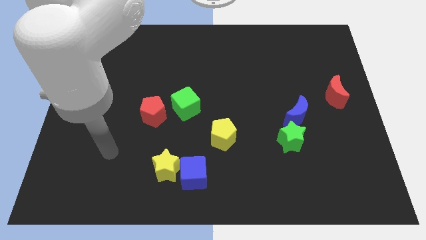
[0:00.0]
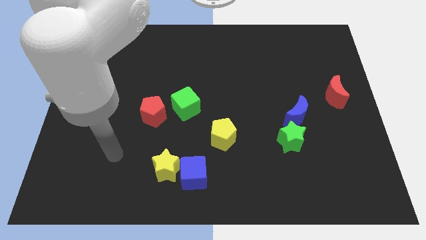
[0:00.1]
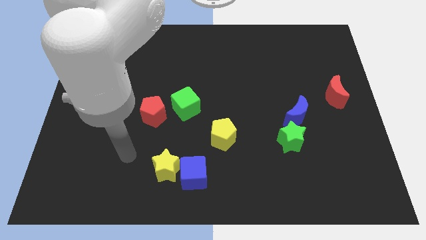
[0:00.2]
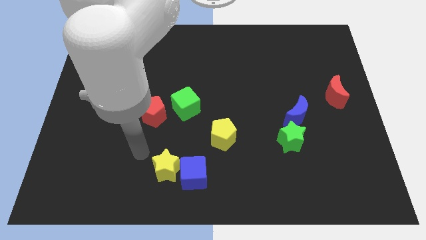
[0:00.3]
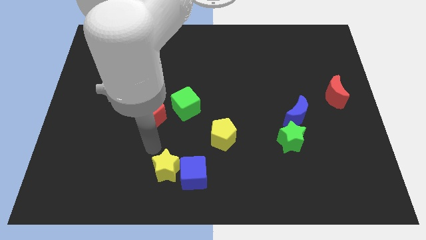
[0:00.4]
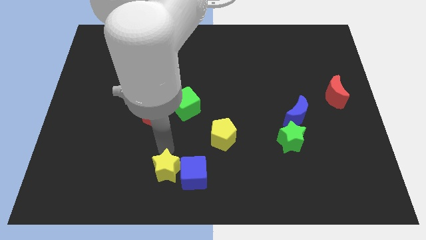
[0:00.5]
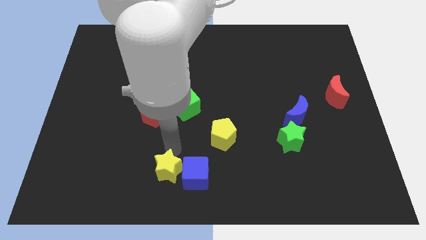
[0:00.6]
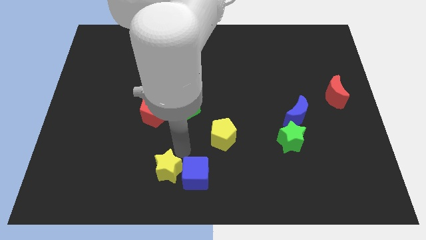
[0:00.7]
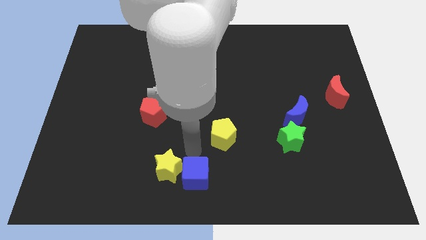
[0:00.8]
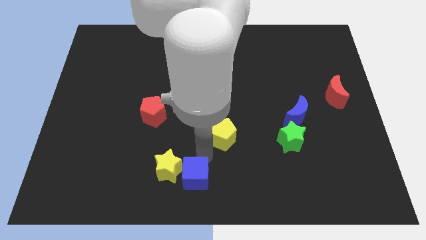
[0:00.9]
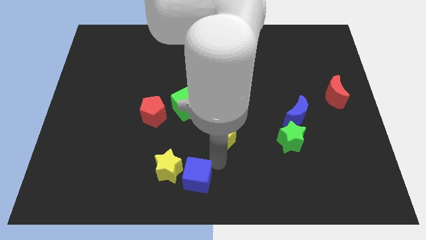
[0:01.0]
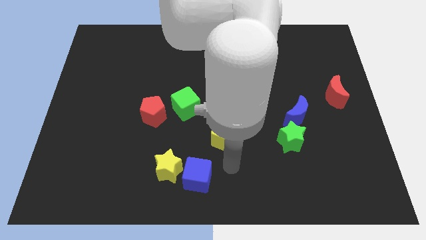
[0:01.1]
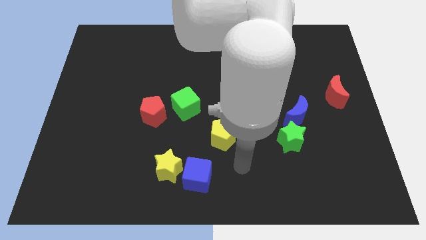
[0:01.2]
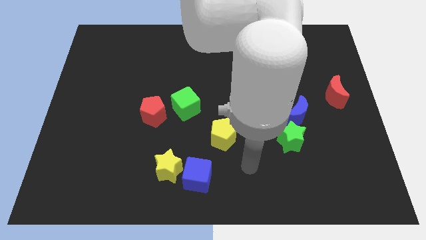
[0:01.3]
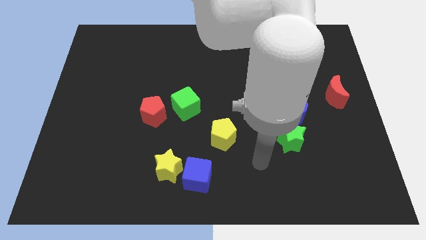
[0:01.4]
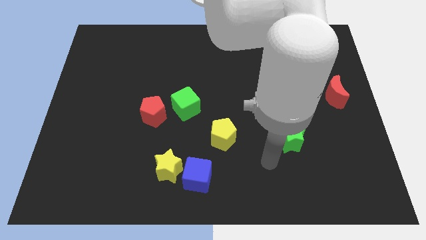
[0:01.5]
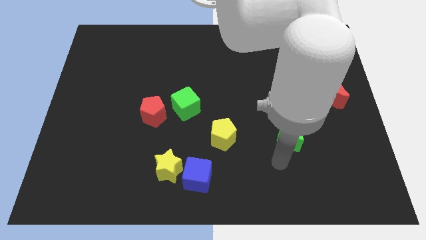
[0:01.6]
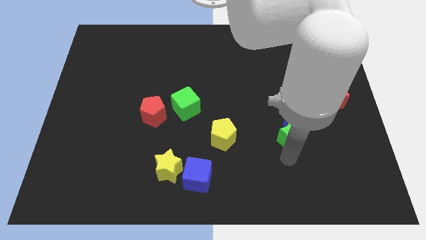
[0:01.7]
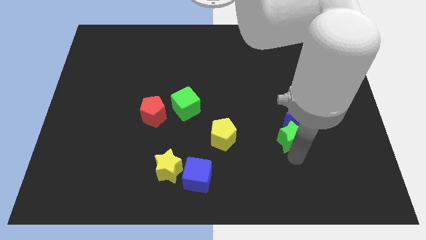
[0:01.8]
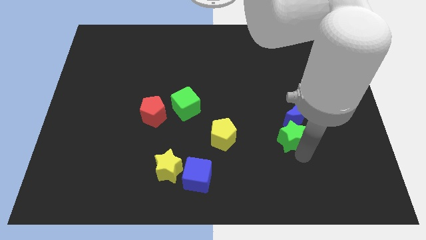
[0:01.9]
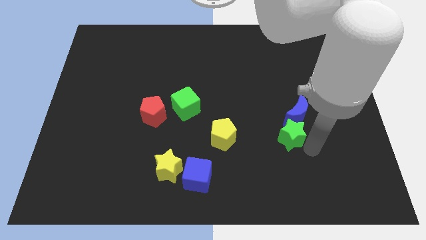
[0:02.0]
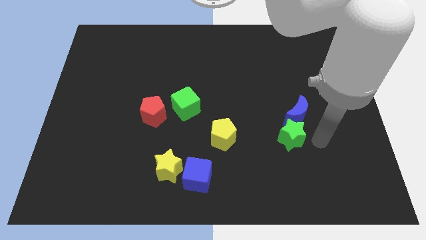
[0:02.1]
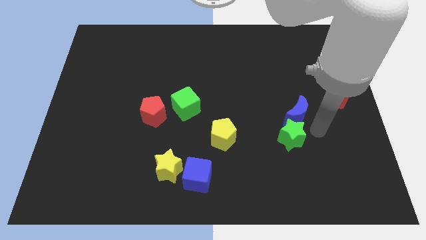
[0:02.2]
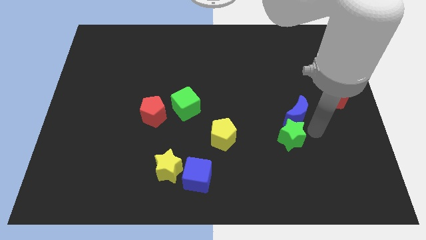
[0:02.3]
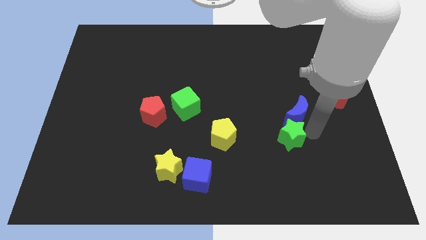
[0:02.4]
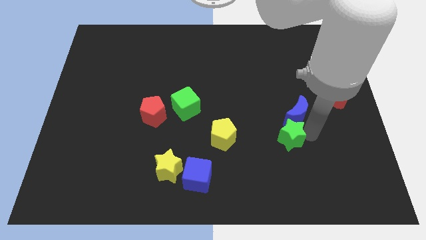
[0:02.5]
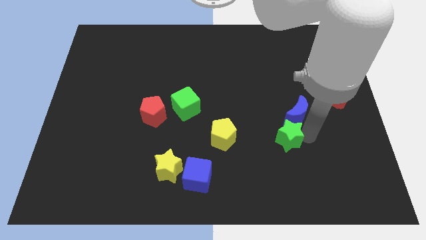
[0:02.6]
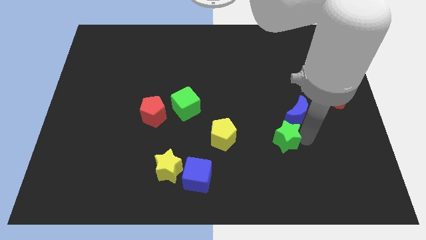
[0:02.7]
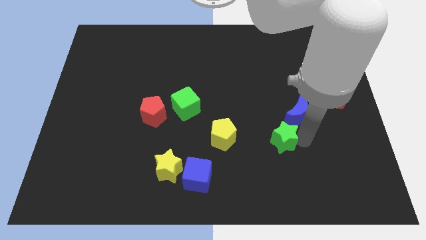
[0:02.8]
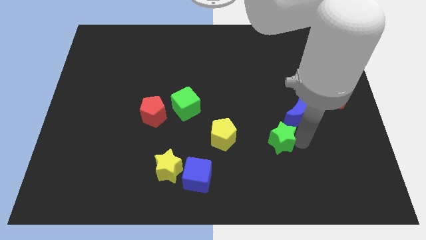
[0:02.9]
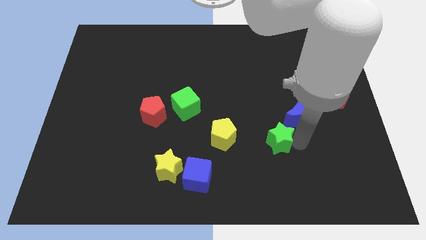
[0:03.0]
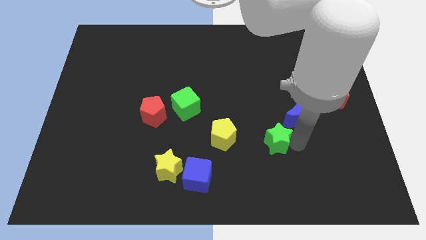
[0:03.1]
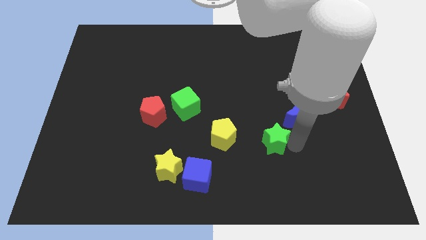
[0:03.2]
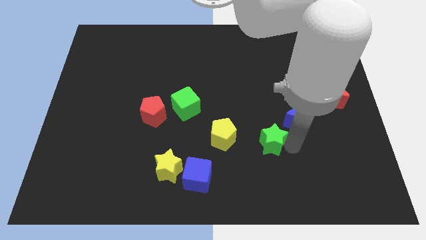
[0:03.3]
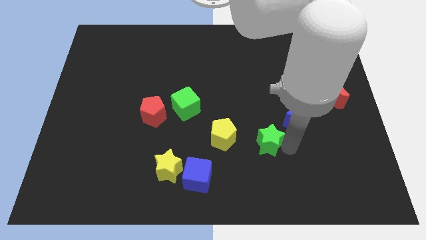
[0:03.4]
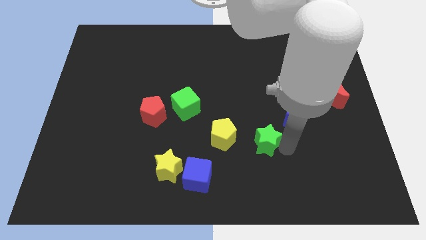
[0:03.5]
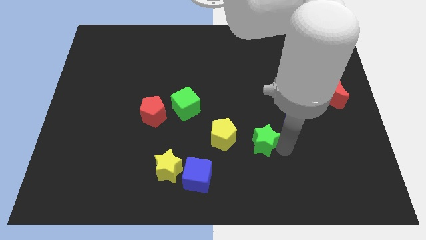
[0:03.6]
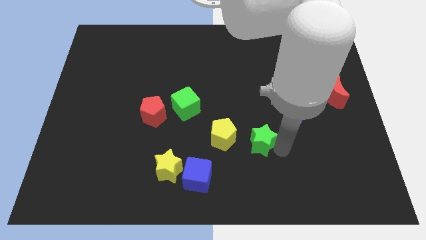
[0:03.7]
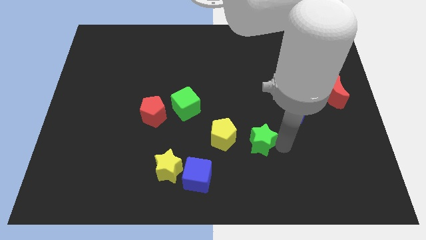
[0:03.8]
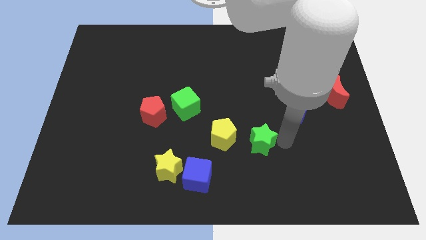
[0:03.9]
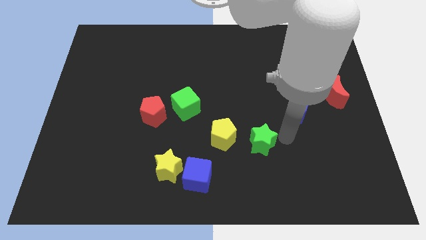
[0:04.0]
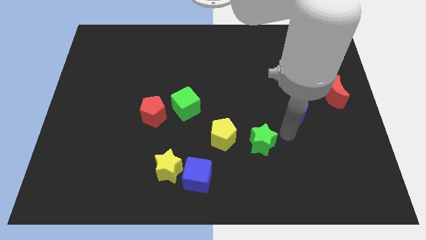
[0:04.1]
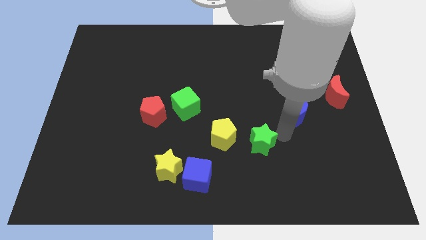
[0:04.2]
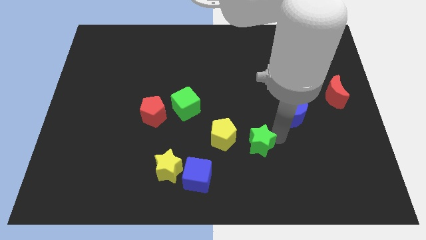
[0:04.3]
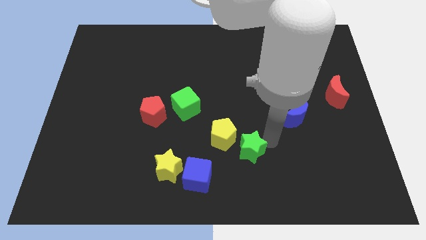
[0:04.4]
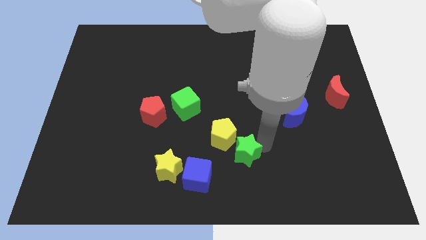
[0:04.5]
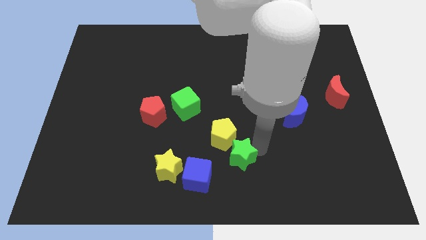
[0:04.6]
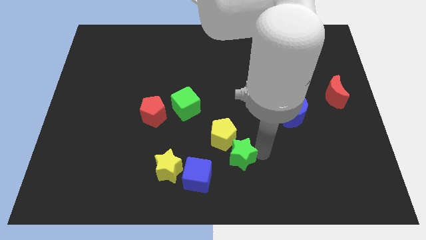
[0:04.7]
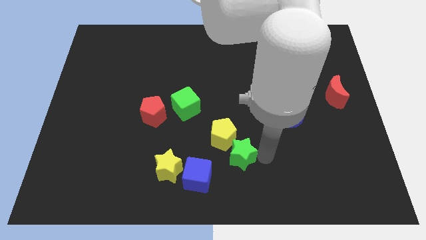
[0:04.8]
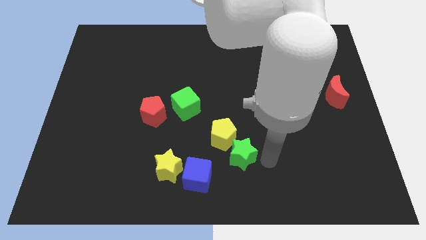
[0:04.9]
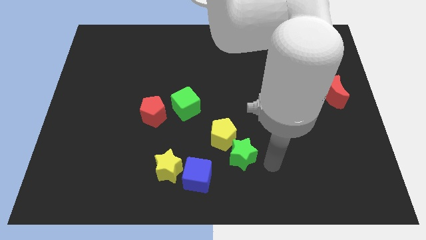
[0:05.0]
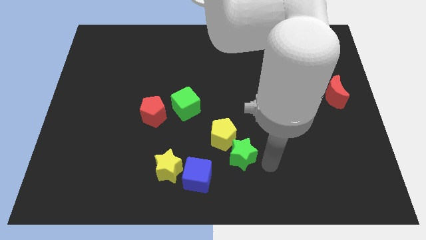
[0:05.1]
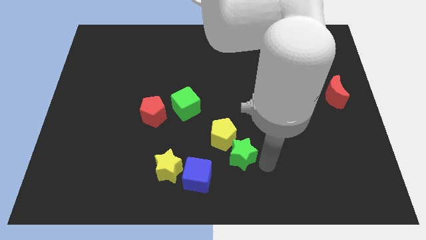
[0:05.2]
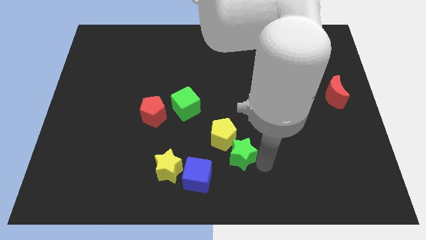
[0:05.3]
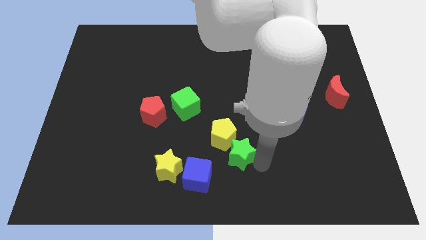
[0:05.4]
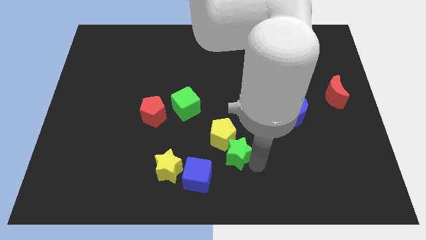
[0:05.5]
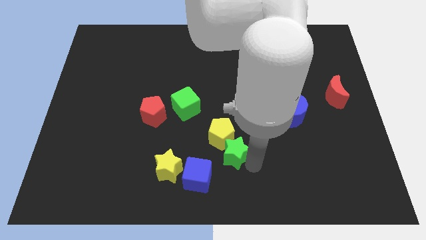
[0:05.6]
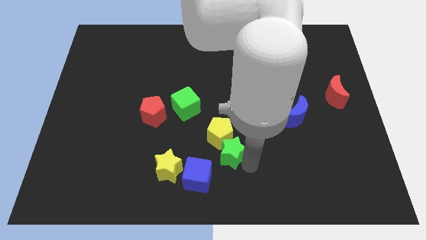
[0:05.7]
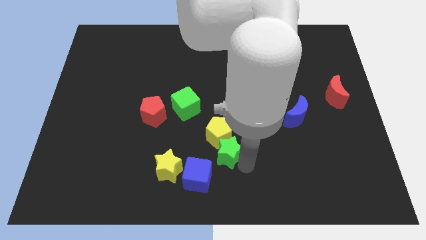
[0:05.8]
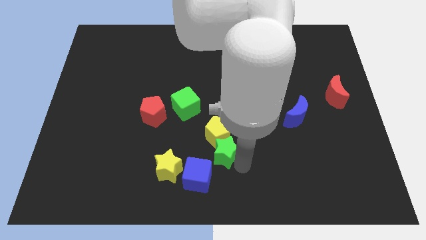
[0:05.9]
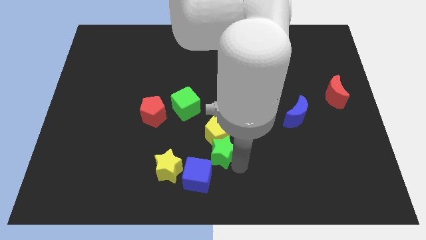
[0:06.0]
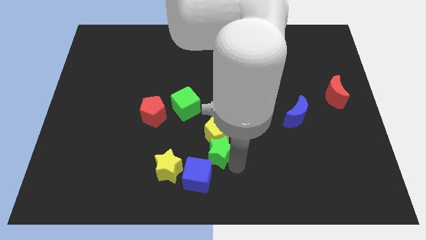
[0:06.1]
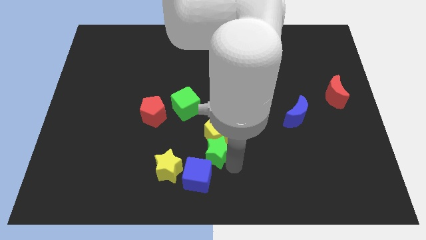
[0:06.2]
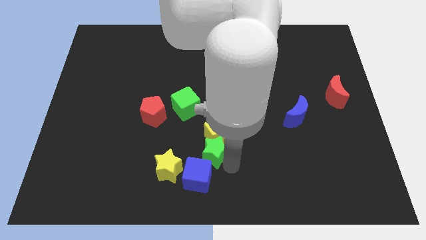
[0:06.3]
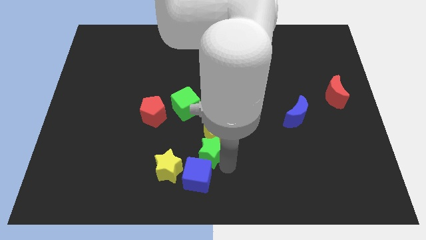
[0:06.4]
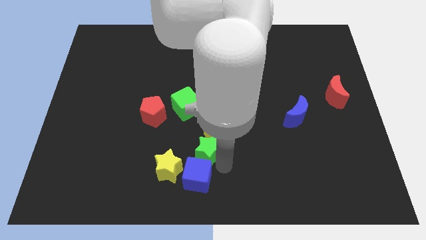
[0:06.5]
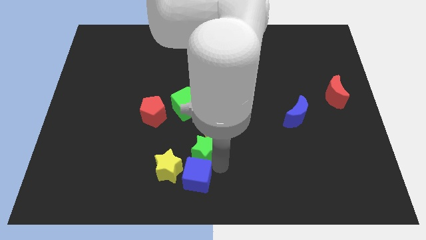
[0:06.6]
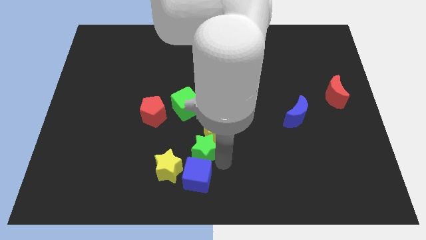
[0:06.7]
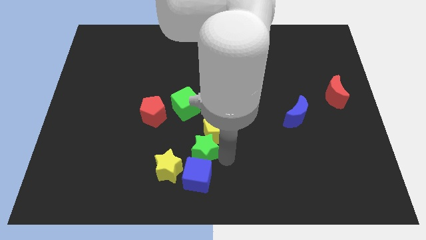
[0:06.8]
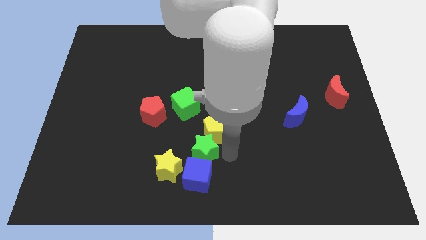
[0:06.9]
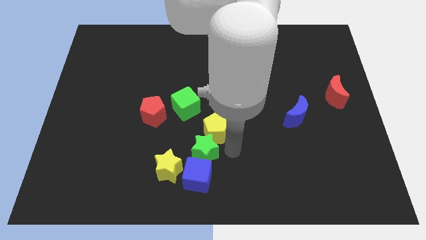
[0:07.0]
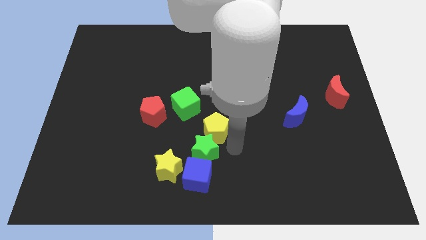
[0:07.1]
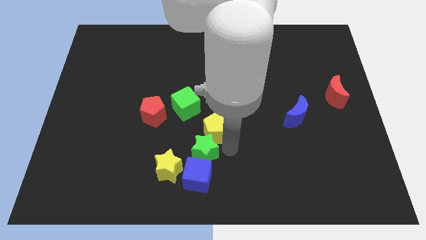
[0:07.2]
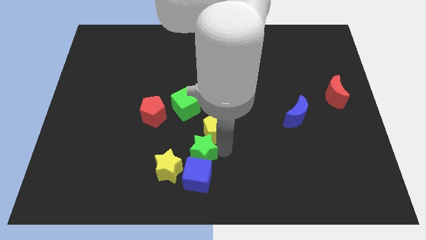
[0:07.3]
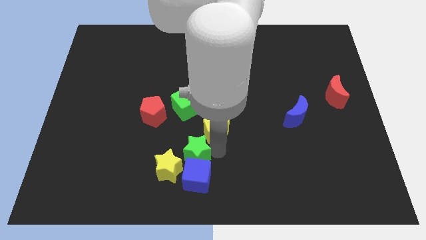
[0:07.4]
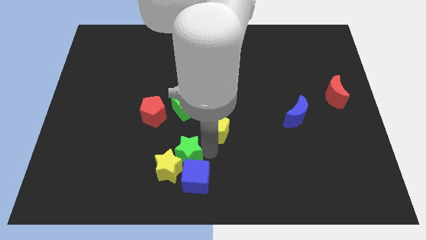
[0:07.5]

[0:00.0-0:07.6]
put the green star to the yellow star
